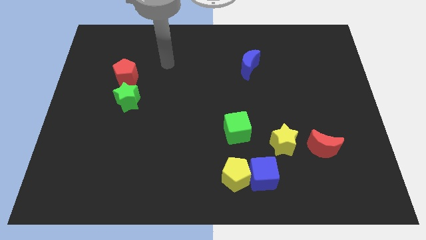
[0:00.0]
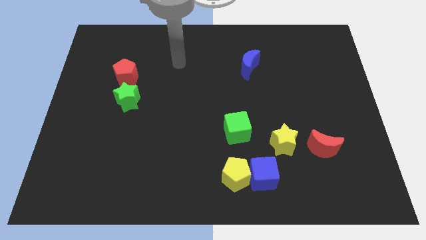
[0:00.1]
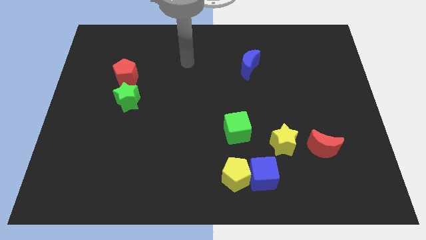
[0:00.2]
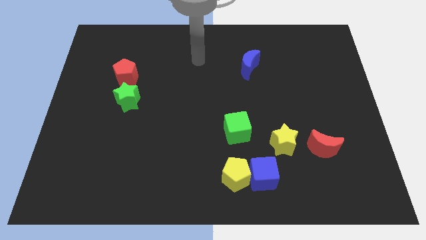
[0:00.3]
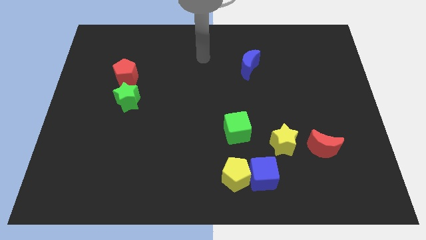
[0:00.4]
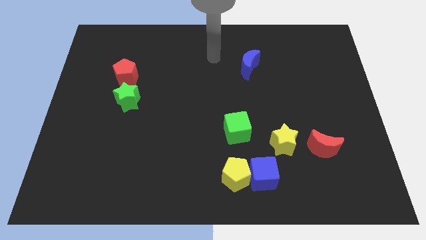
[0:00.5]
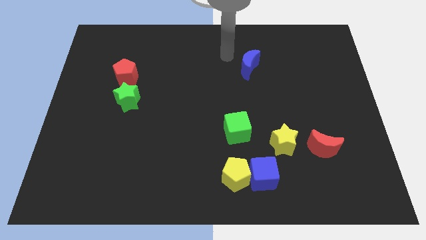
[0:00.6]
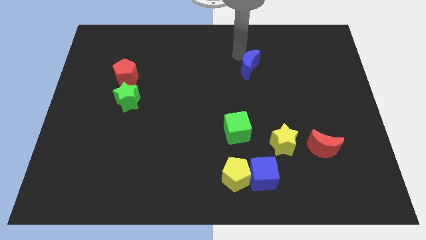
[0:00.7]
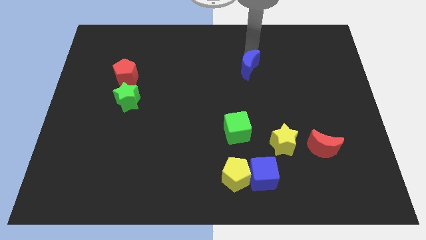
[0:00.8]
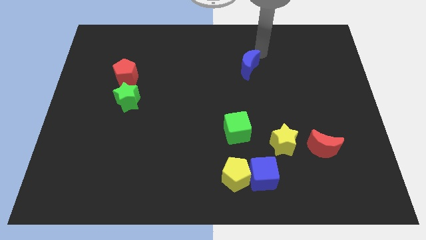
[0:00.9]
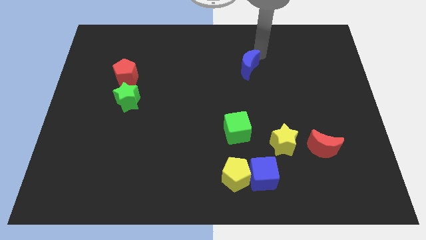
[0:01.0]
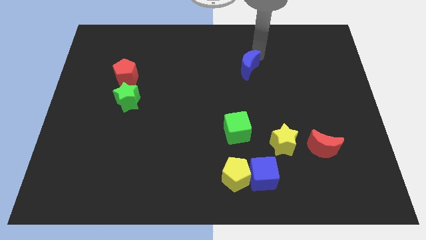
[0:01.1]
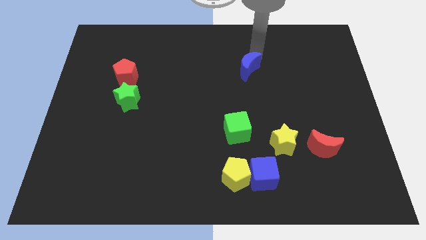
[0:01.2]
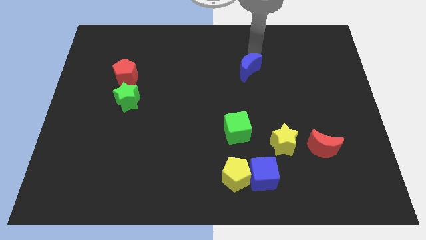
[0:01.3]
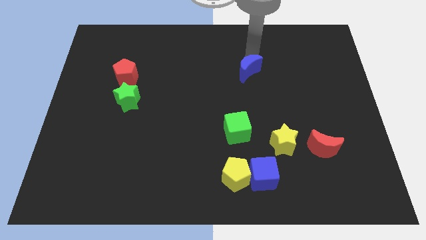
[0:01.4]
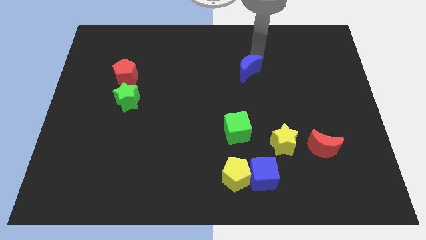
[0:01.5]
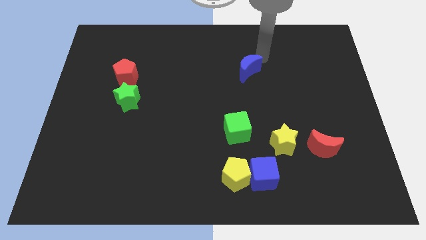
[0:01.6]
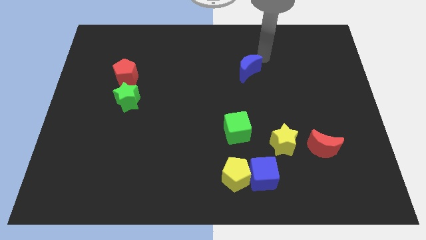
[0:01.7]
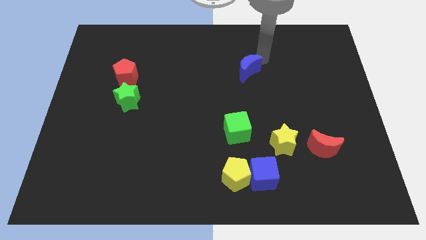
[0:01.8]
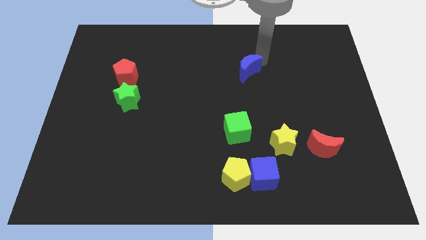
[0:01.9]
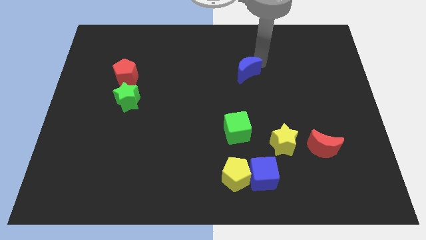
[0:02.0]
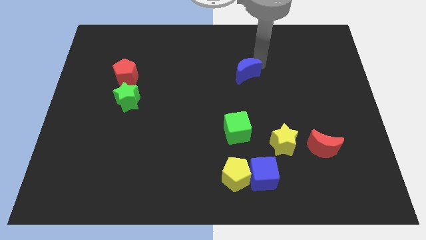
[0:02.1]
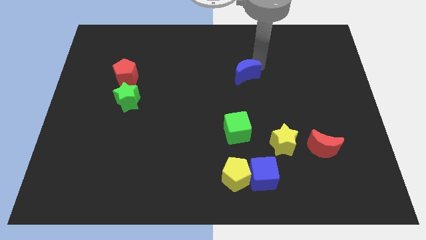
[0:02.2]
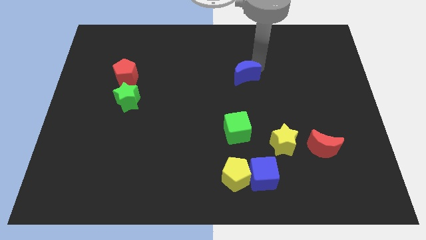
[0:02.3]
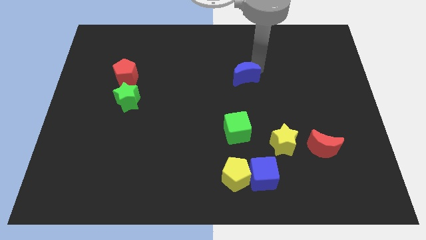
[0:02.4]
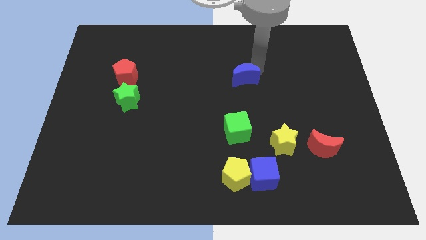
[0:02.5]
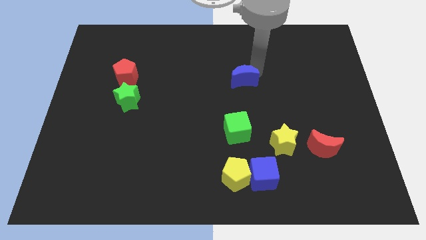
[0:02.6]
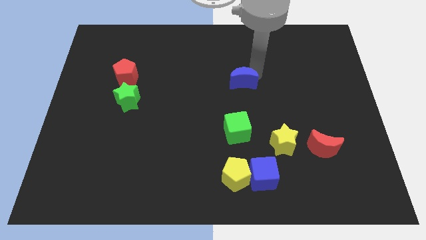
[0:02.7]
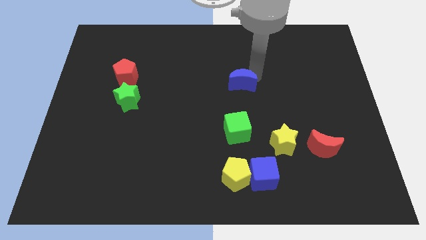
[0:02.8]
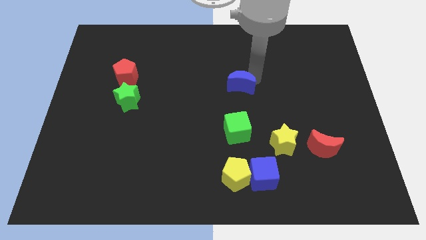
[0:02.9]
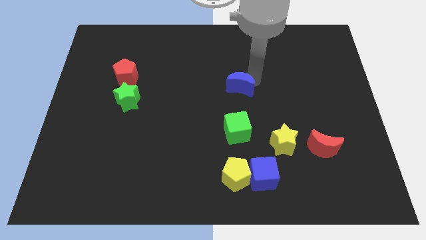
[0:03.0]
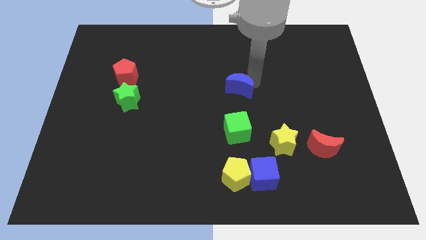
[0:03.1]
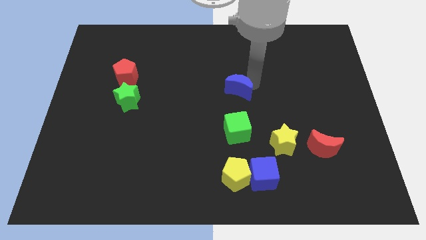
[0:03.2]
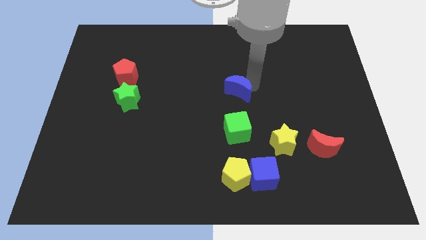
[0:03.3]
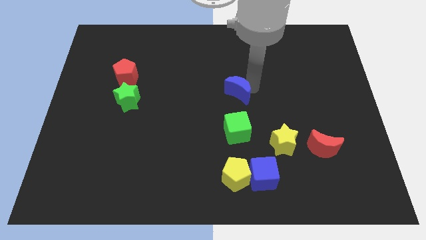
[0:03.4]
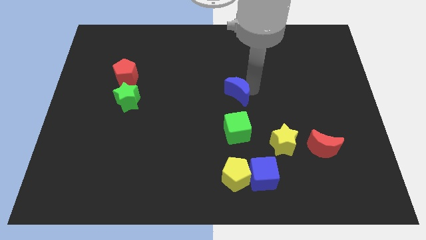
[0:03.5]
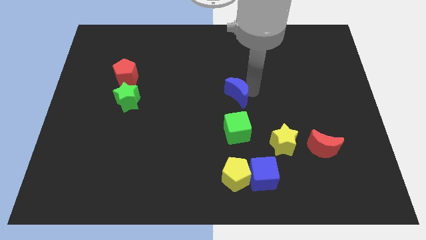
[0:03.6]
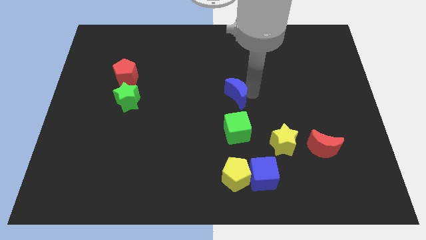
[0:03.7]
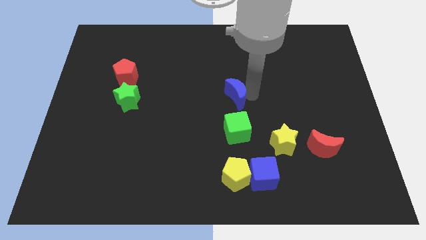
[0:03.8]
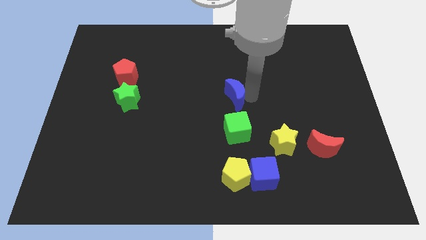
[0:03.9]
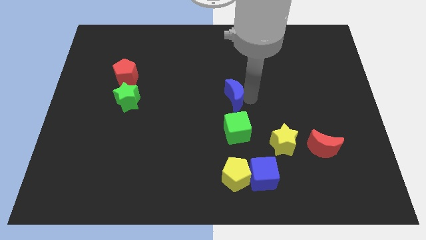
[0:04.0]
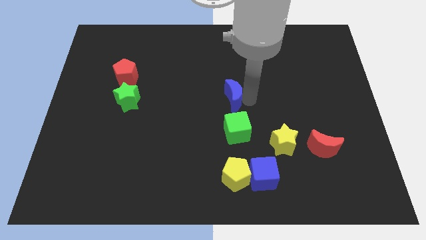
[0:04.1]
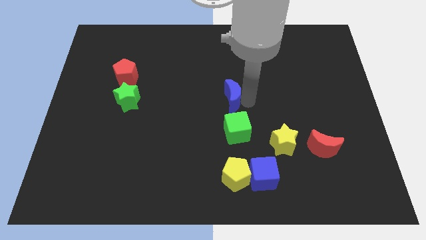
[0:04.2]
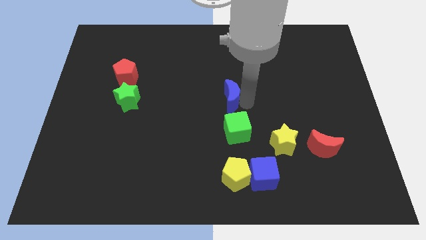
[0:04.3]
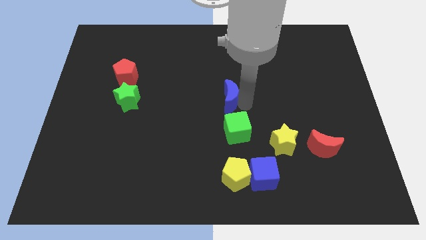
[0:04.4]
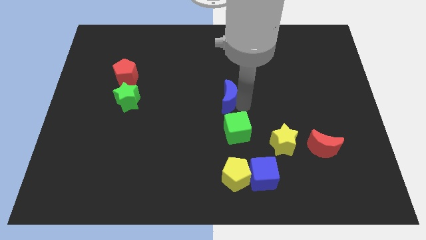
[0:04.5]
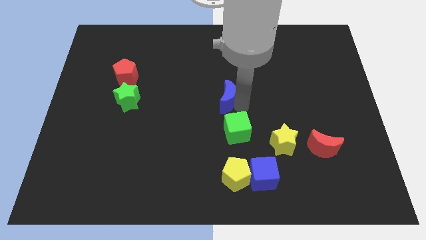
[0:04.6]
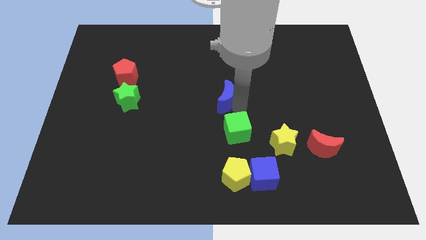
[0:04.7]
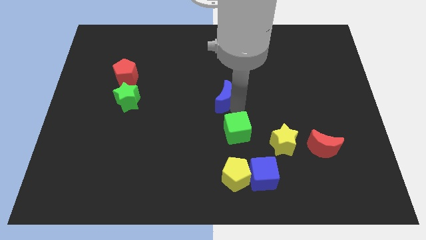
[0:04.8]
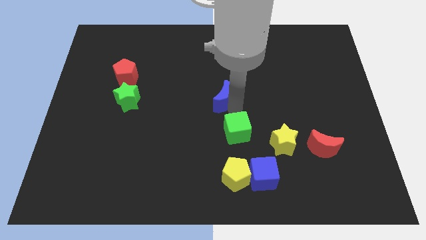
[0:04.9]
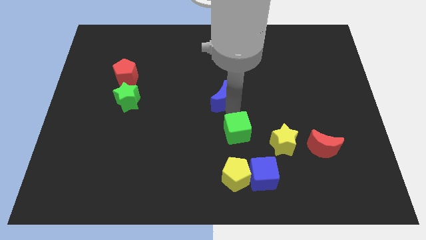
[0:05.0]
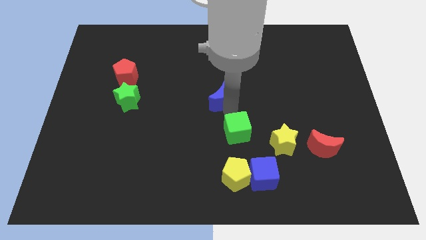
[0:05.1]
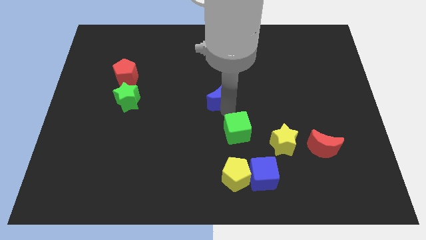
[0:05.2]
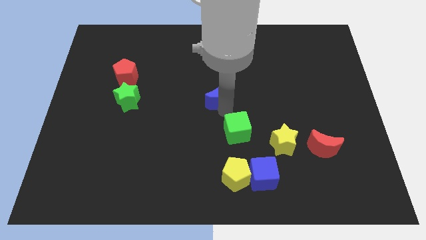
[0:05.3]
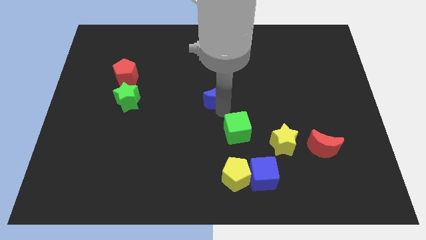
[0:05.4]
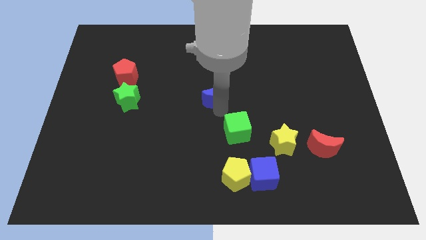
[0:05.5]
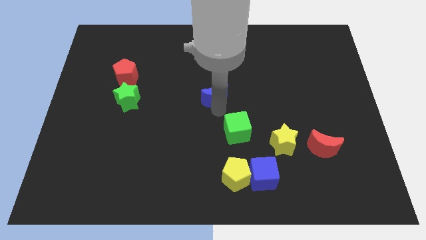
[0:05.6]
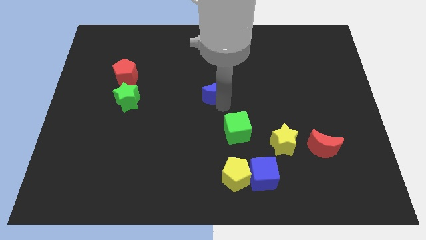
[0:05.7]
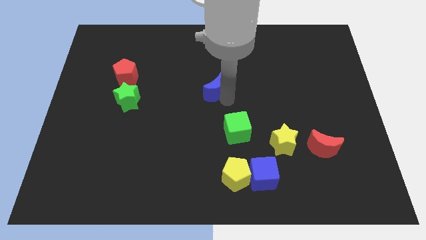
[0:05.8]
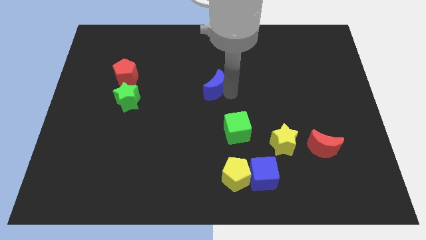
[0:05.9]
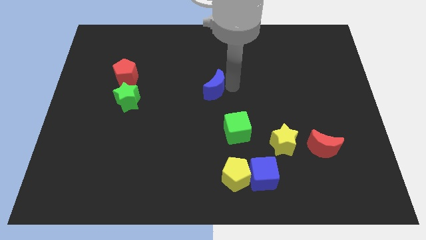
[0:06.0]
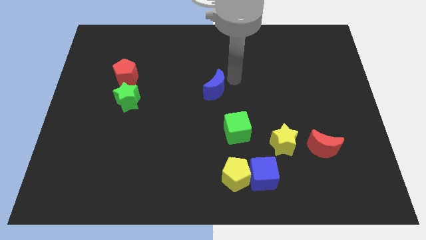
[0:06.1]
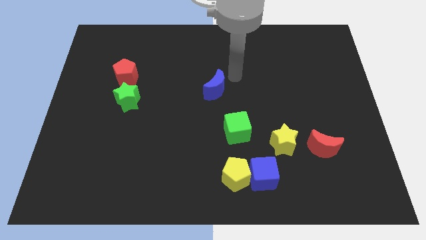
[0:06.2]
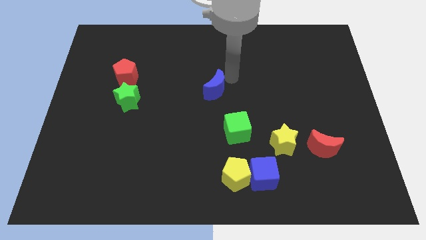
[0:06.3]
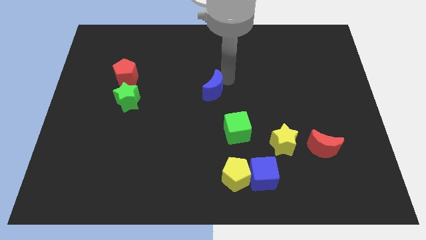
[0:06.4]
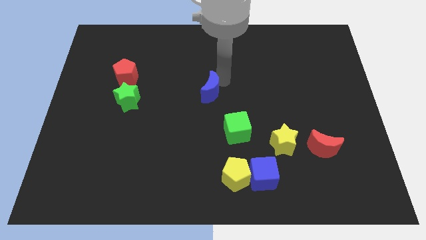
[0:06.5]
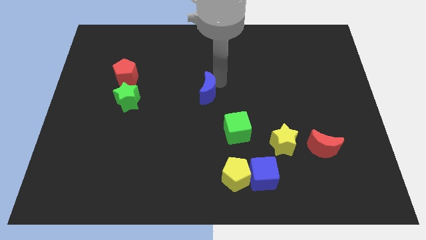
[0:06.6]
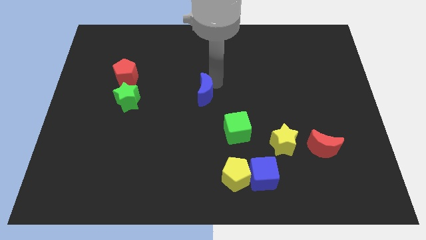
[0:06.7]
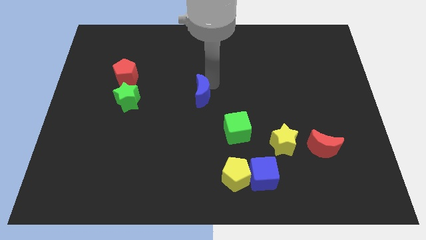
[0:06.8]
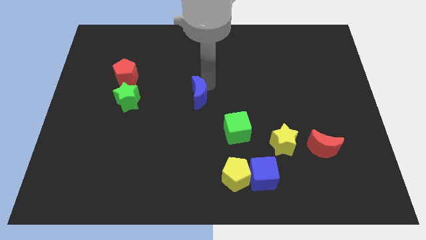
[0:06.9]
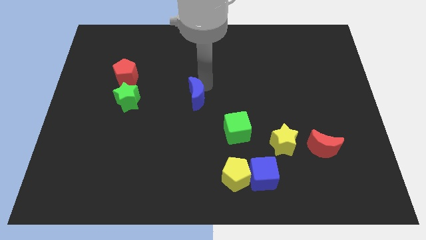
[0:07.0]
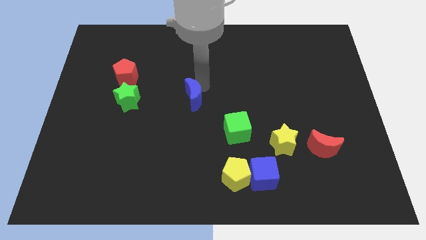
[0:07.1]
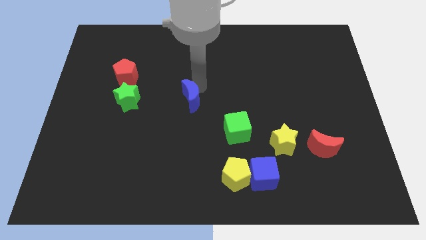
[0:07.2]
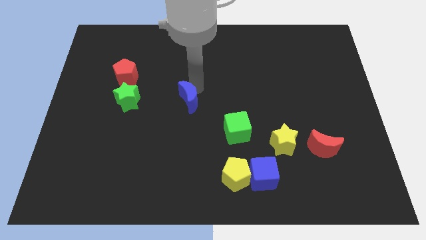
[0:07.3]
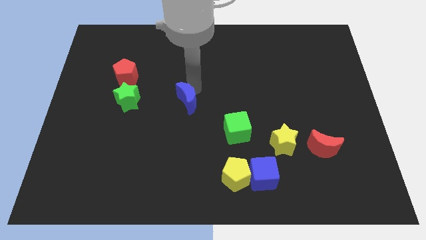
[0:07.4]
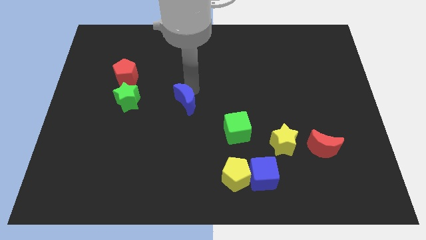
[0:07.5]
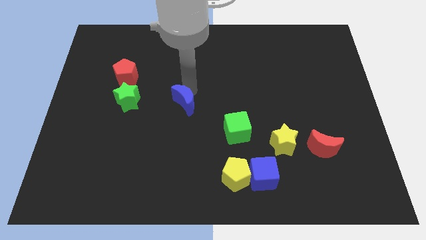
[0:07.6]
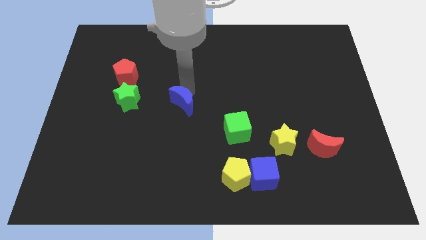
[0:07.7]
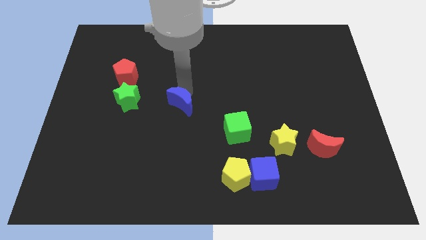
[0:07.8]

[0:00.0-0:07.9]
push the blue moon down and to the left
